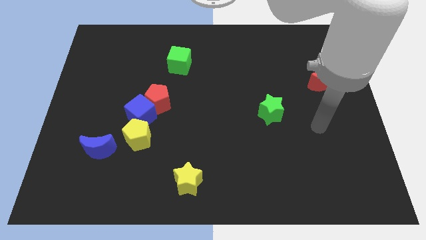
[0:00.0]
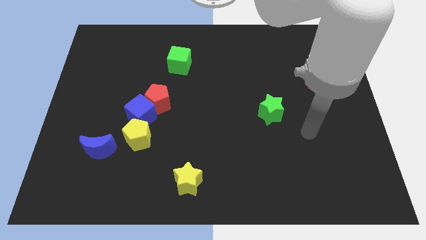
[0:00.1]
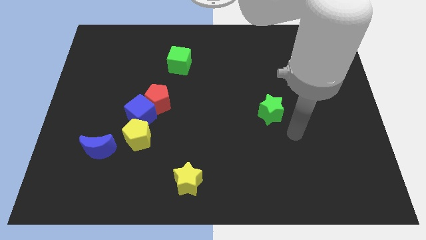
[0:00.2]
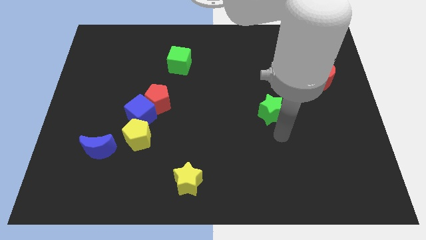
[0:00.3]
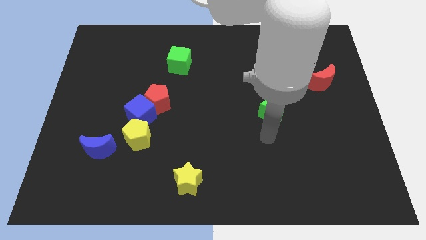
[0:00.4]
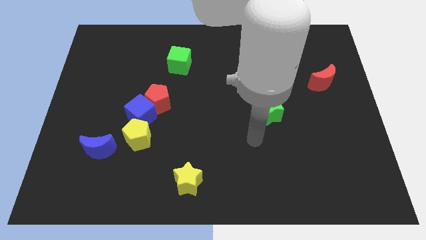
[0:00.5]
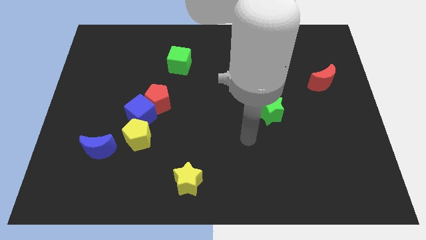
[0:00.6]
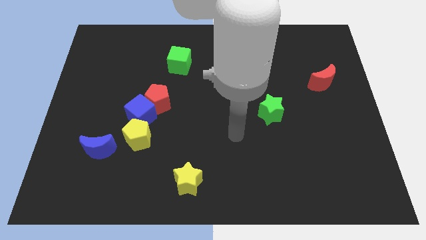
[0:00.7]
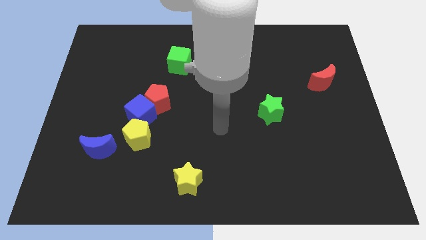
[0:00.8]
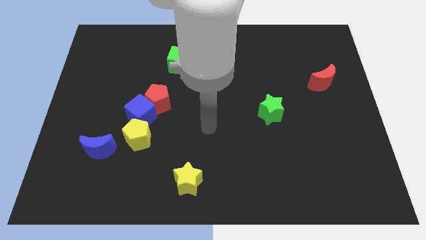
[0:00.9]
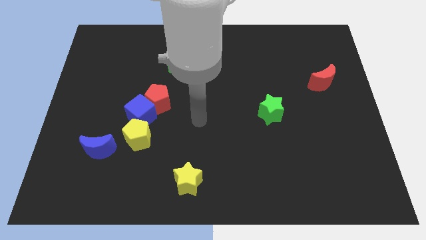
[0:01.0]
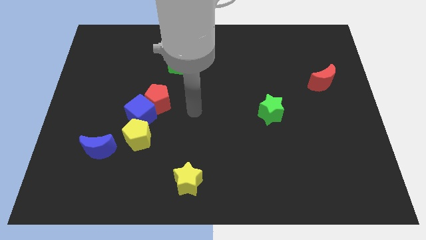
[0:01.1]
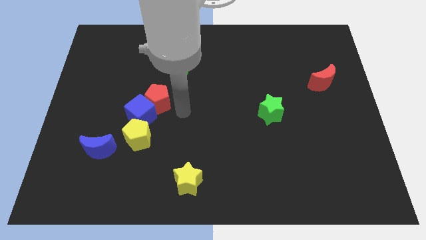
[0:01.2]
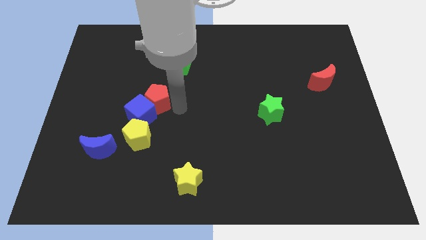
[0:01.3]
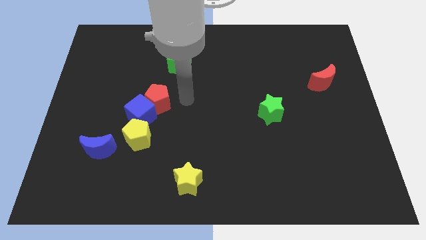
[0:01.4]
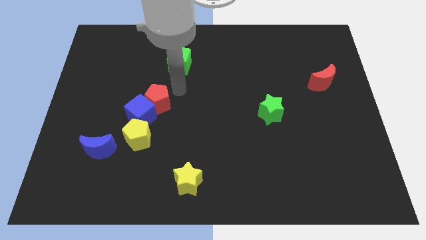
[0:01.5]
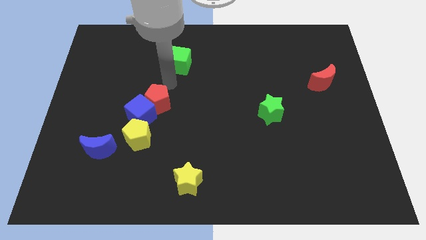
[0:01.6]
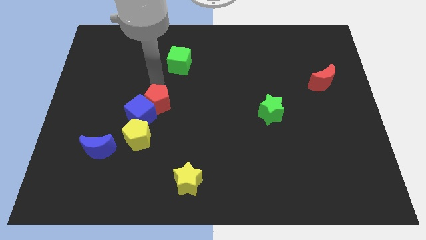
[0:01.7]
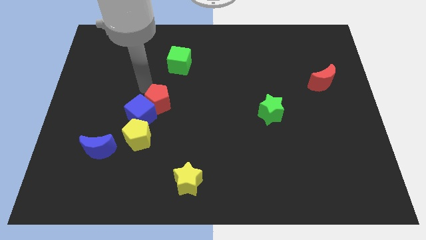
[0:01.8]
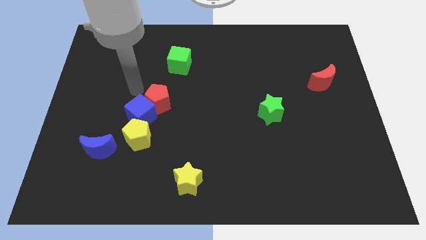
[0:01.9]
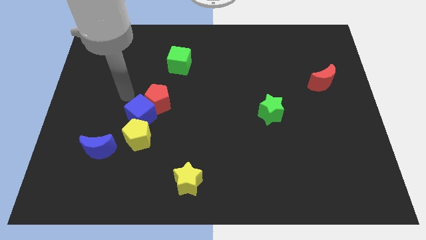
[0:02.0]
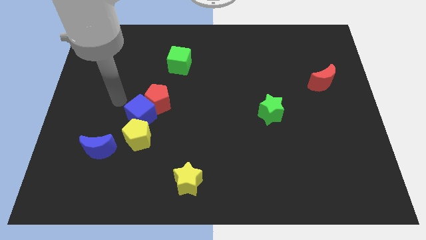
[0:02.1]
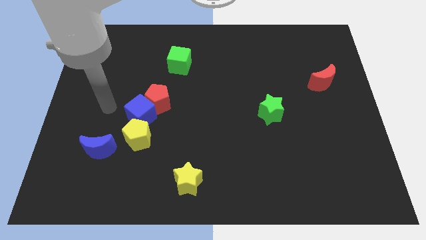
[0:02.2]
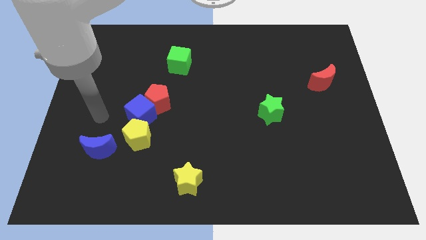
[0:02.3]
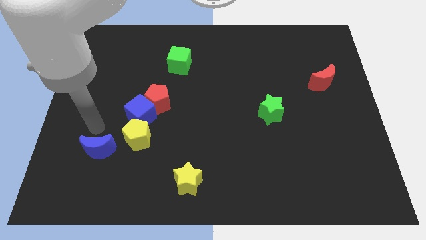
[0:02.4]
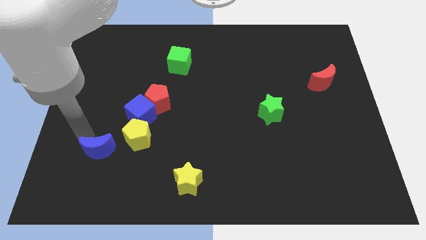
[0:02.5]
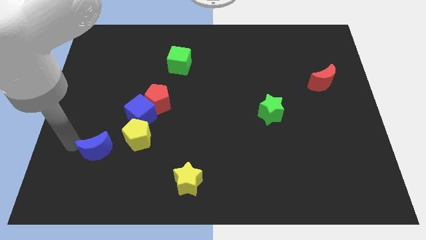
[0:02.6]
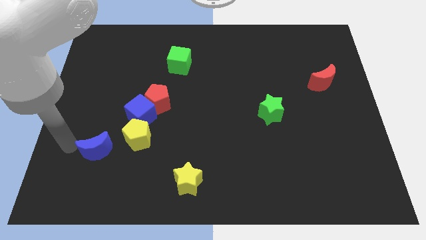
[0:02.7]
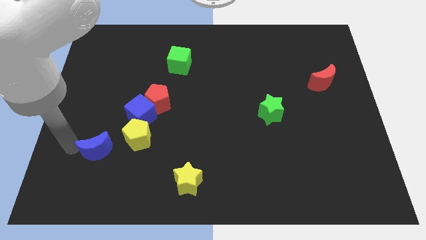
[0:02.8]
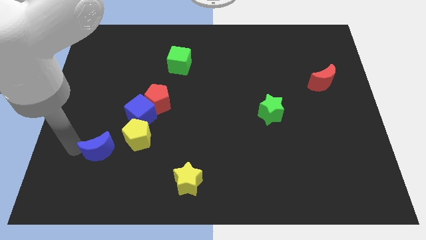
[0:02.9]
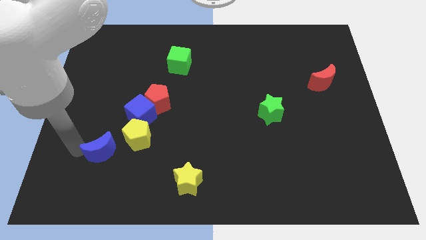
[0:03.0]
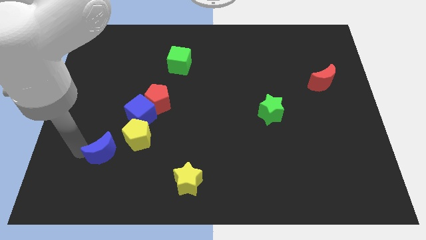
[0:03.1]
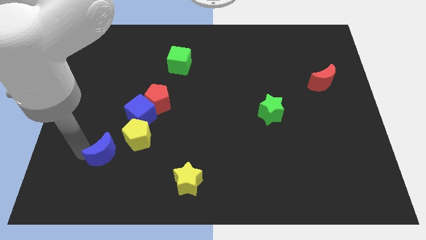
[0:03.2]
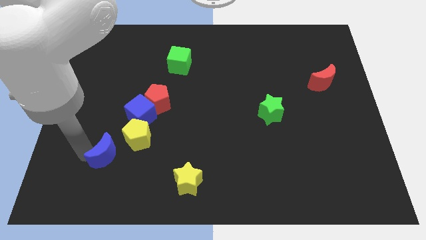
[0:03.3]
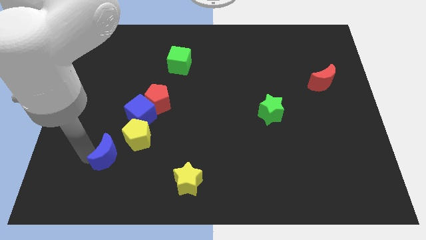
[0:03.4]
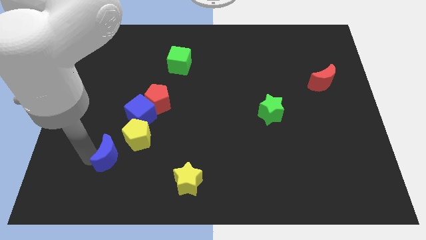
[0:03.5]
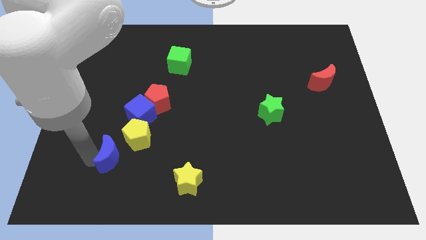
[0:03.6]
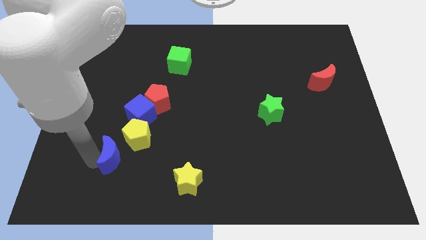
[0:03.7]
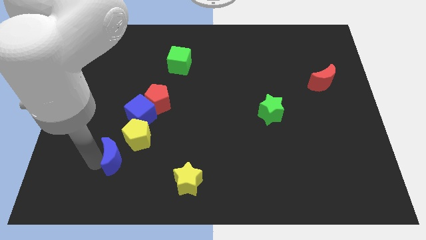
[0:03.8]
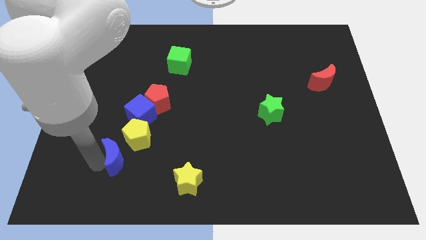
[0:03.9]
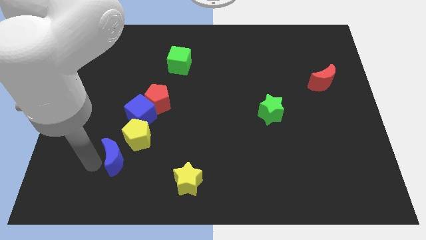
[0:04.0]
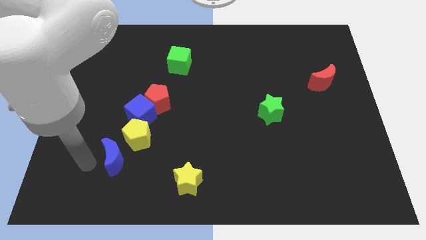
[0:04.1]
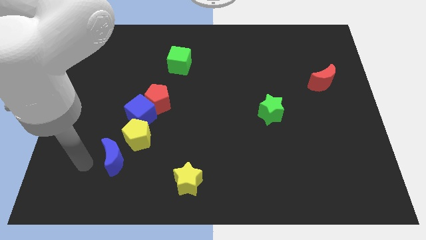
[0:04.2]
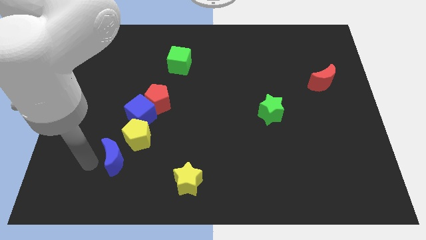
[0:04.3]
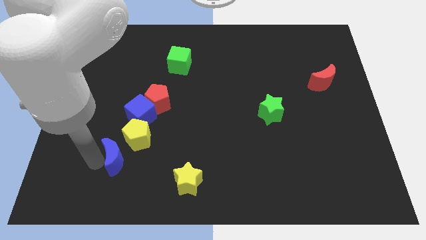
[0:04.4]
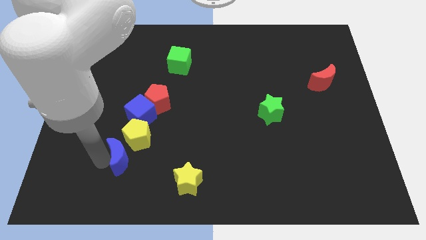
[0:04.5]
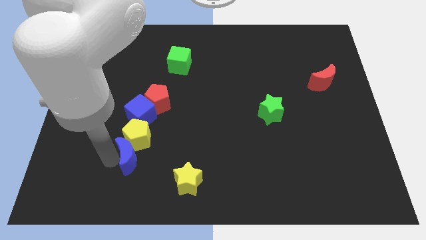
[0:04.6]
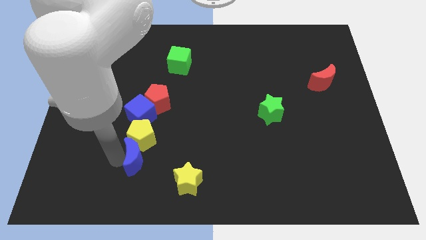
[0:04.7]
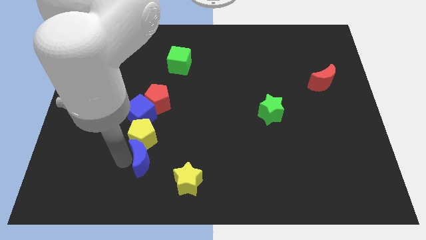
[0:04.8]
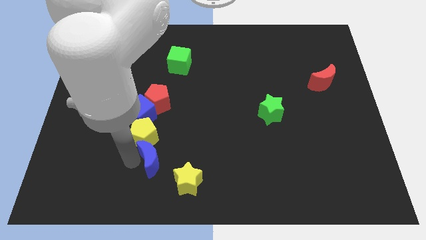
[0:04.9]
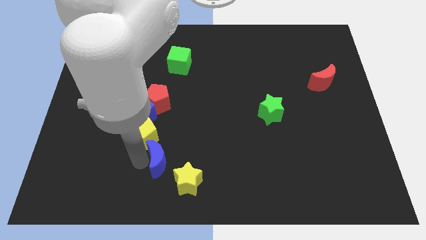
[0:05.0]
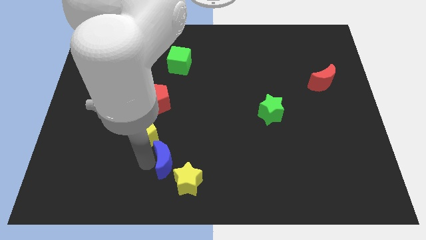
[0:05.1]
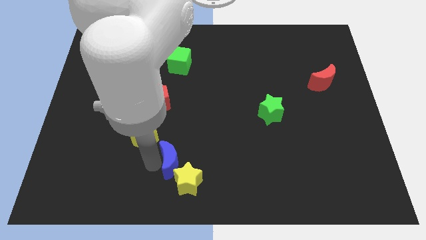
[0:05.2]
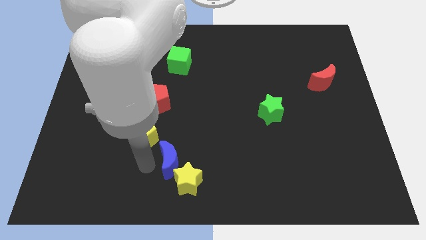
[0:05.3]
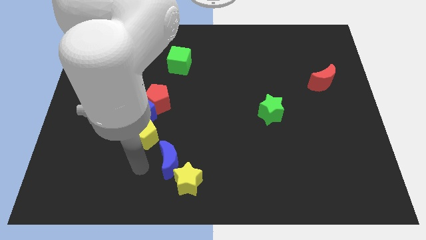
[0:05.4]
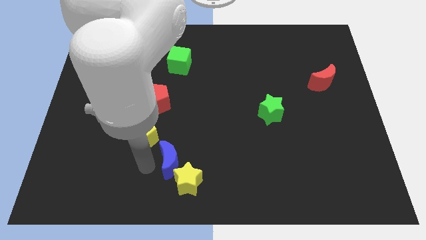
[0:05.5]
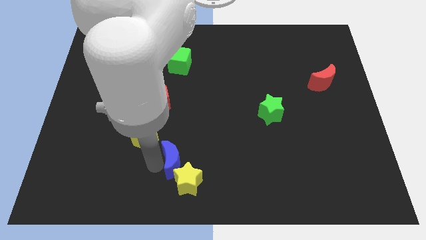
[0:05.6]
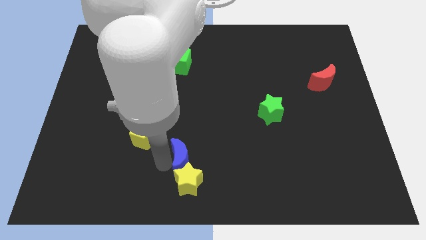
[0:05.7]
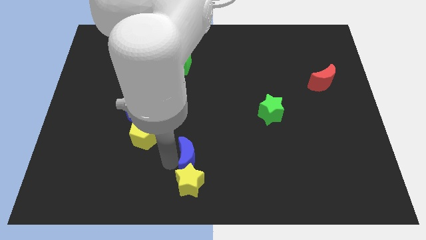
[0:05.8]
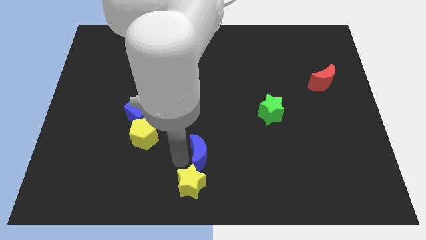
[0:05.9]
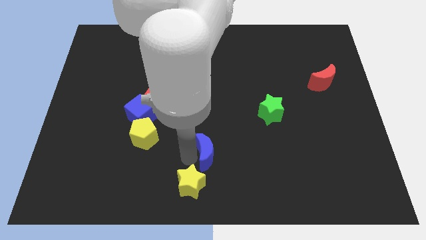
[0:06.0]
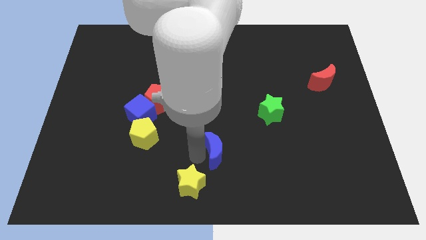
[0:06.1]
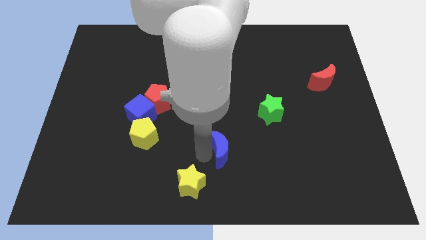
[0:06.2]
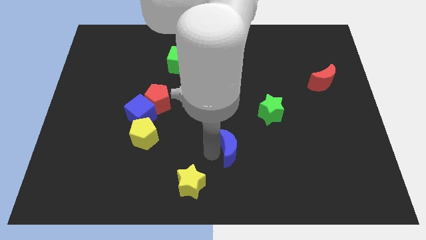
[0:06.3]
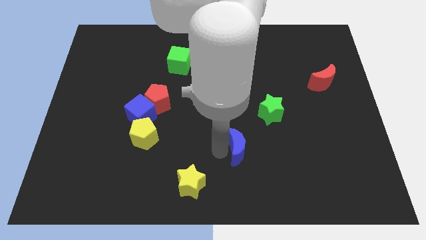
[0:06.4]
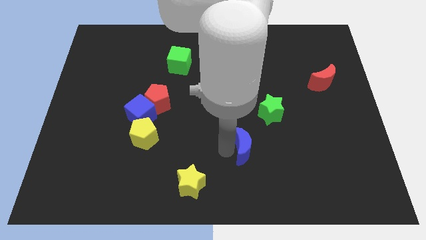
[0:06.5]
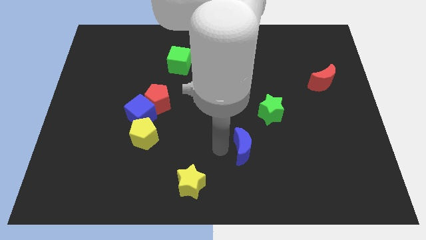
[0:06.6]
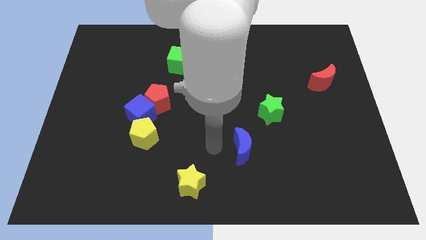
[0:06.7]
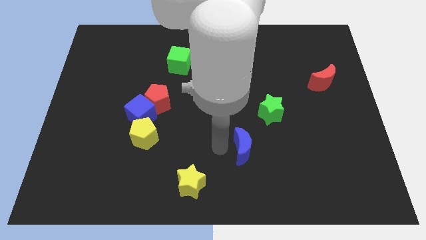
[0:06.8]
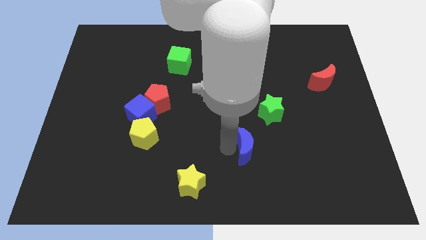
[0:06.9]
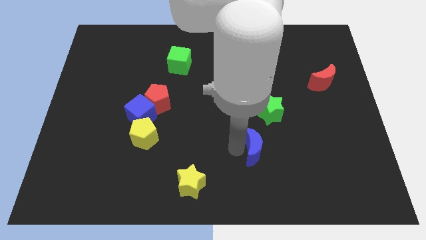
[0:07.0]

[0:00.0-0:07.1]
slide the blue moon to the bottom side of the green star
